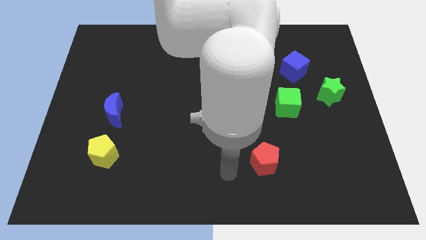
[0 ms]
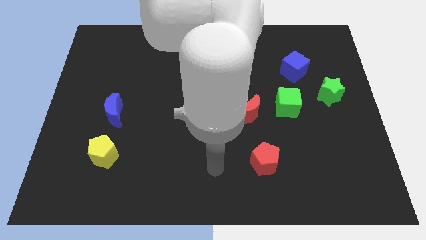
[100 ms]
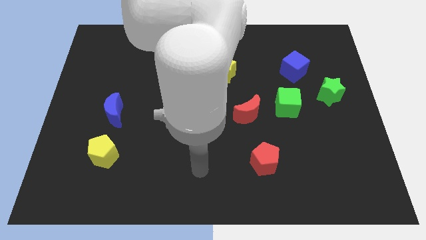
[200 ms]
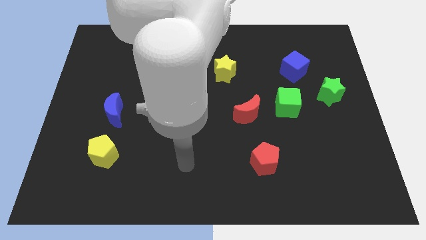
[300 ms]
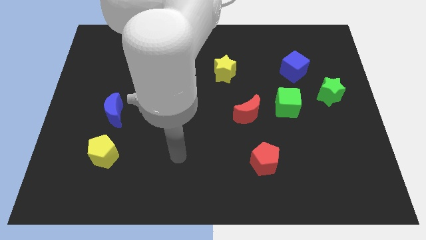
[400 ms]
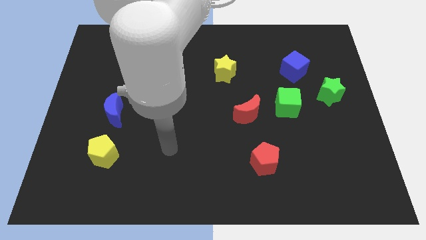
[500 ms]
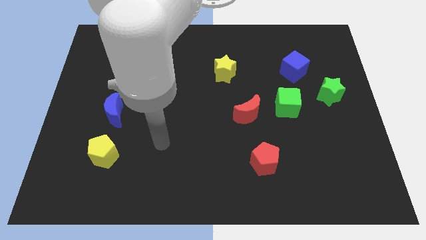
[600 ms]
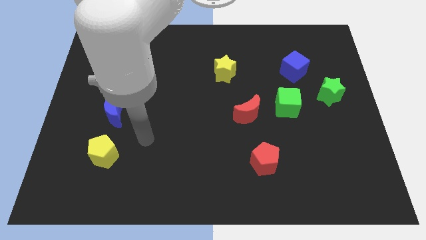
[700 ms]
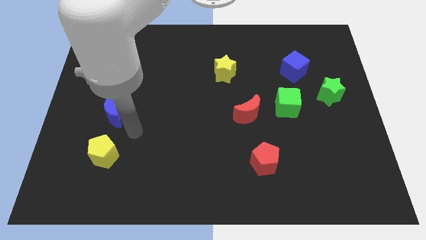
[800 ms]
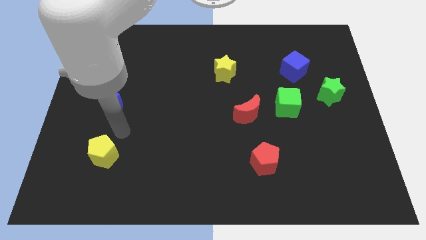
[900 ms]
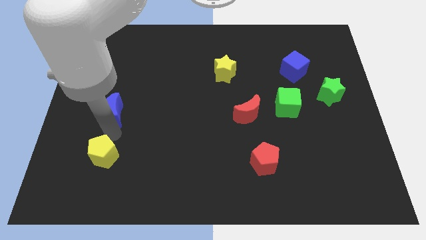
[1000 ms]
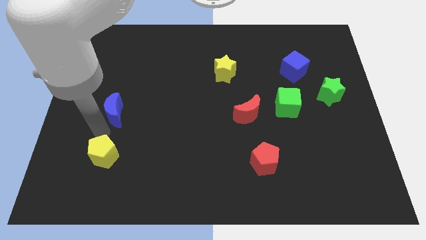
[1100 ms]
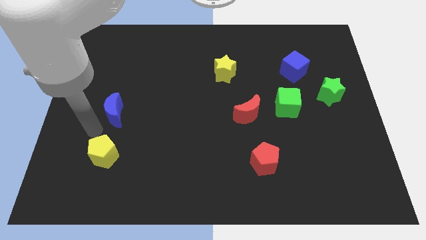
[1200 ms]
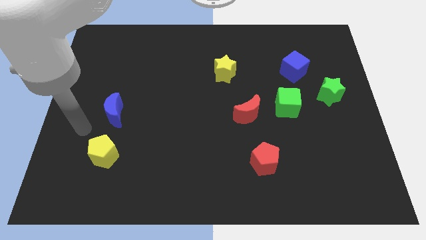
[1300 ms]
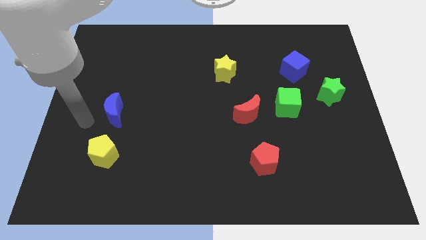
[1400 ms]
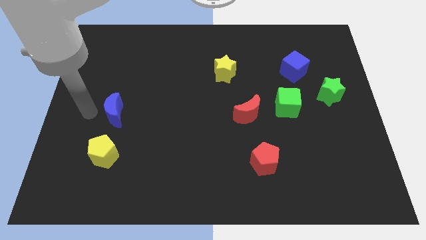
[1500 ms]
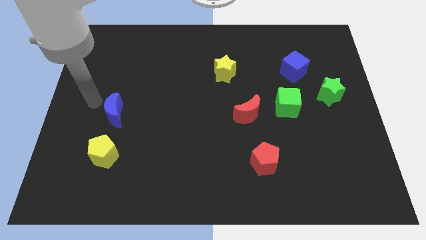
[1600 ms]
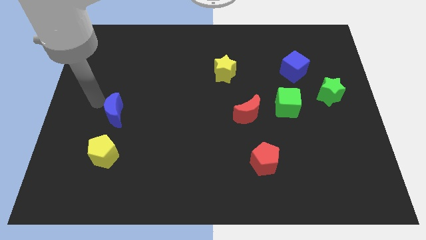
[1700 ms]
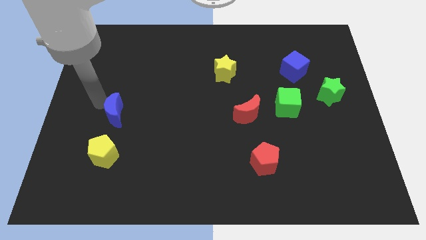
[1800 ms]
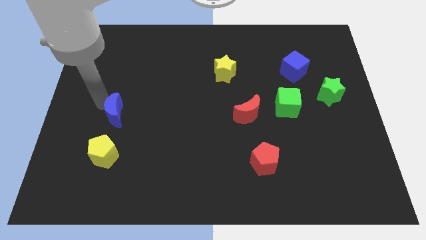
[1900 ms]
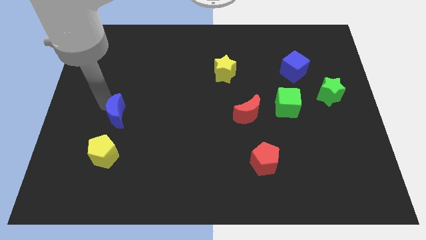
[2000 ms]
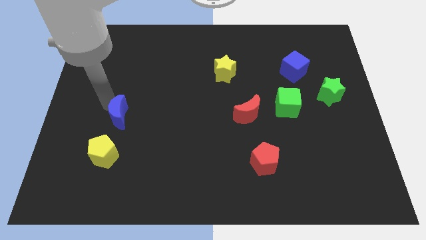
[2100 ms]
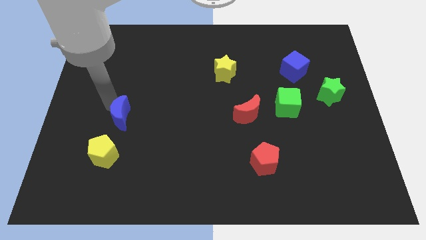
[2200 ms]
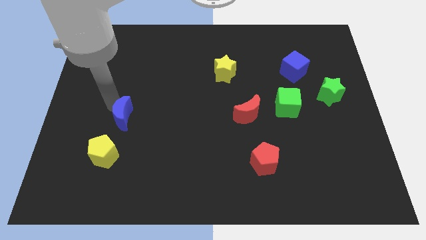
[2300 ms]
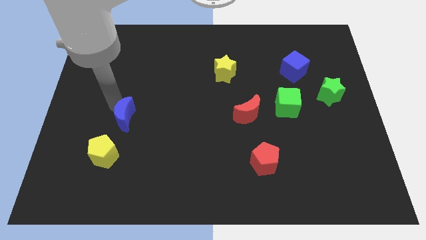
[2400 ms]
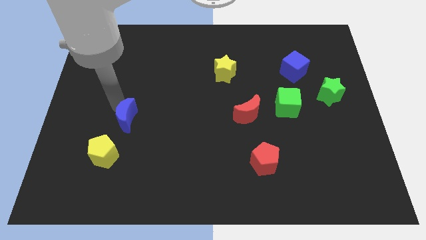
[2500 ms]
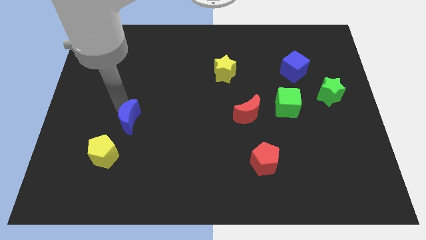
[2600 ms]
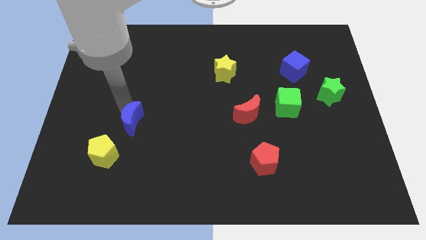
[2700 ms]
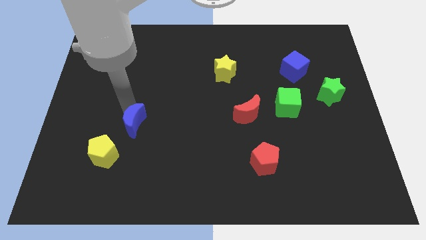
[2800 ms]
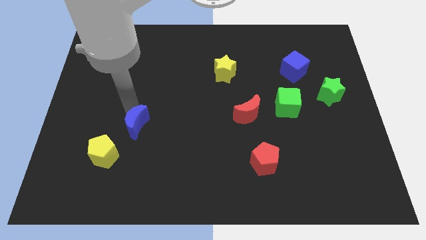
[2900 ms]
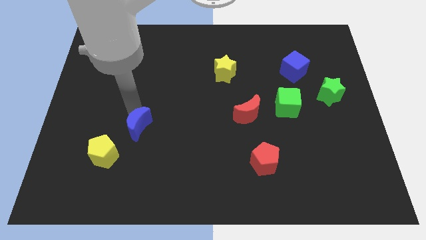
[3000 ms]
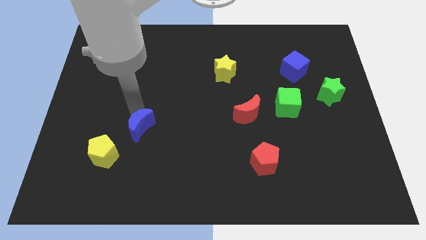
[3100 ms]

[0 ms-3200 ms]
slide the blue moon somewhat downwards and to the right

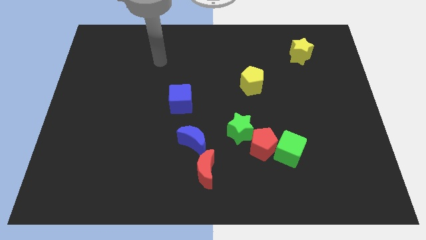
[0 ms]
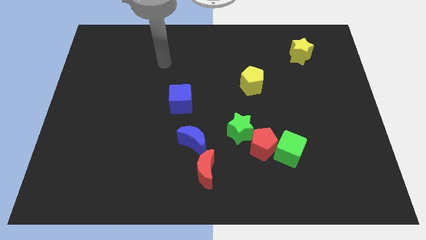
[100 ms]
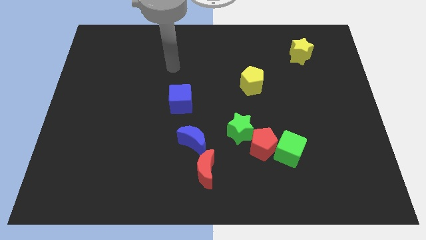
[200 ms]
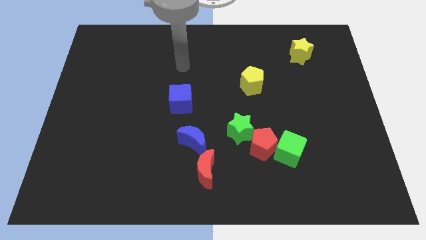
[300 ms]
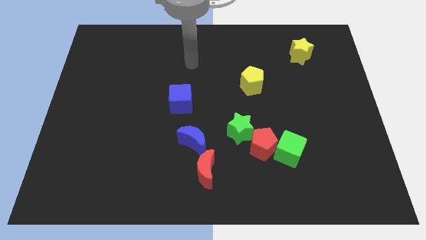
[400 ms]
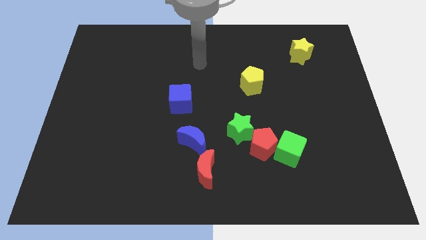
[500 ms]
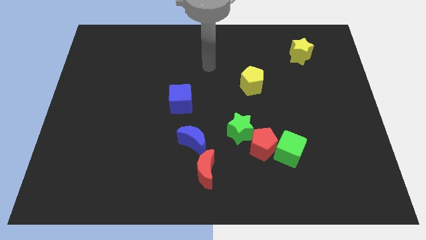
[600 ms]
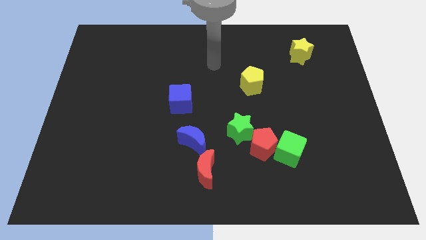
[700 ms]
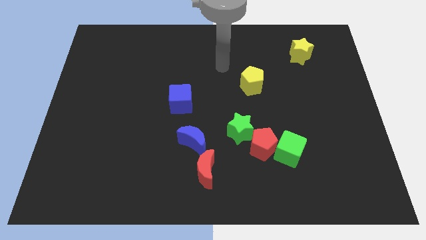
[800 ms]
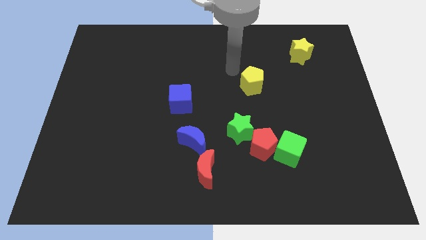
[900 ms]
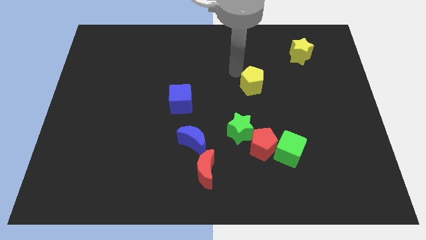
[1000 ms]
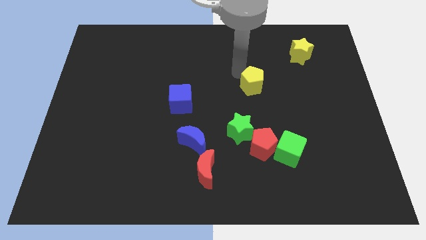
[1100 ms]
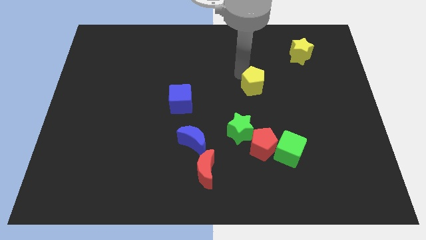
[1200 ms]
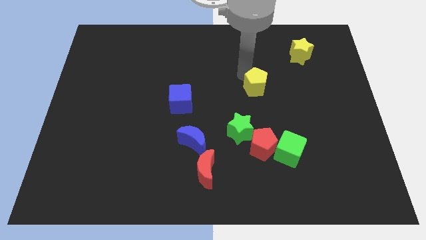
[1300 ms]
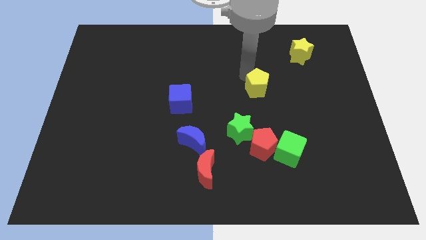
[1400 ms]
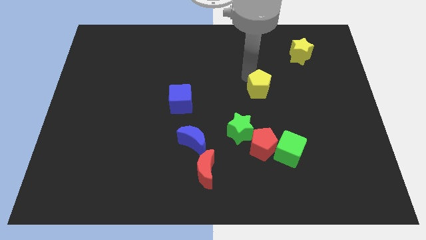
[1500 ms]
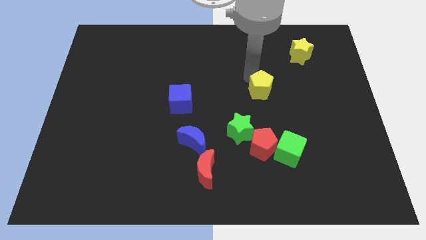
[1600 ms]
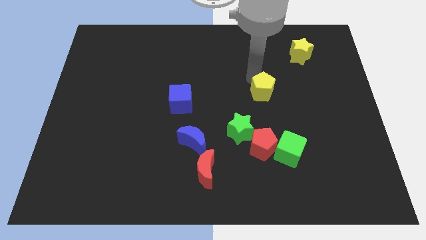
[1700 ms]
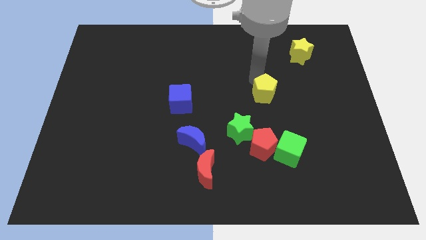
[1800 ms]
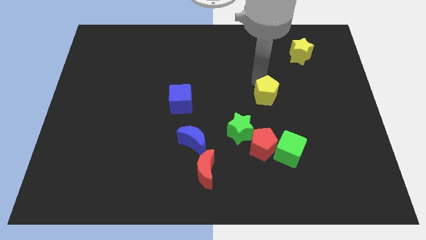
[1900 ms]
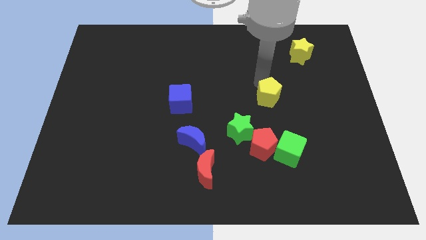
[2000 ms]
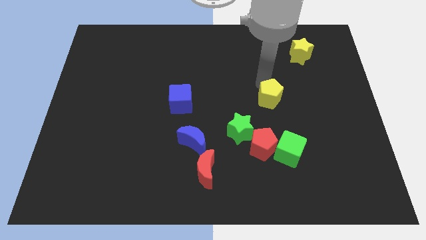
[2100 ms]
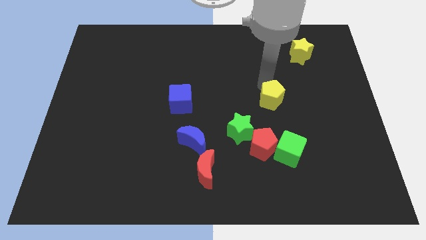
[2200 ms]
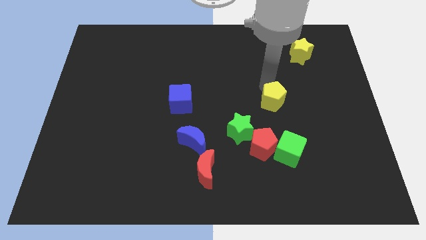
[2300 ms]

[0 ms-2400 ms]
slide the yellow pentagon slightly down and right diagonally

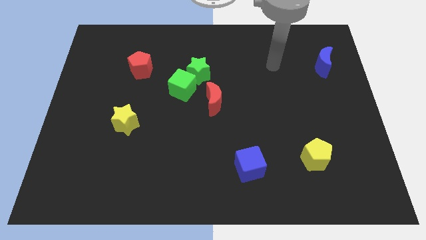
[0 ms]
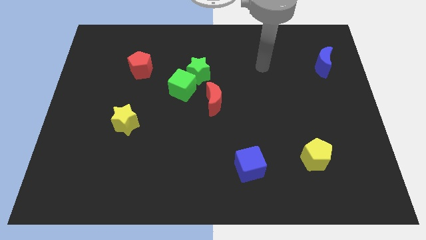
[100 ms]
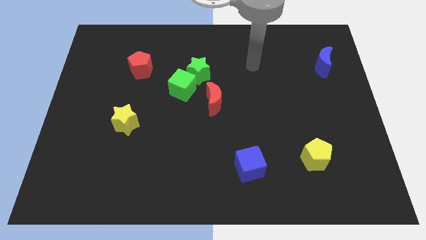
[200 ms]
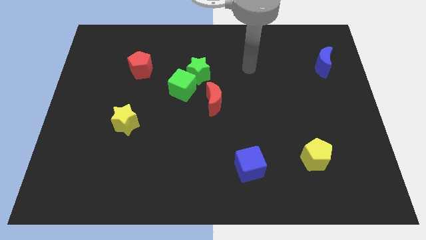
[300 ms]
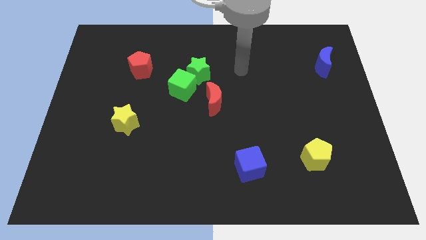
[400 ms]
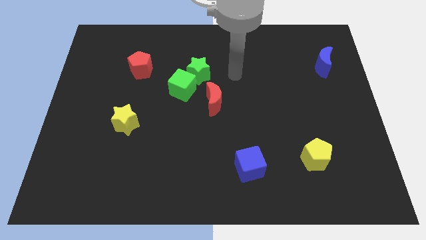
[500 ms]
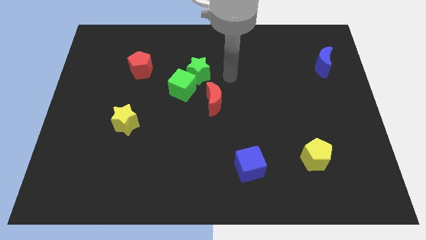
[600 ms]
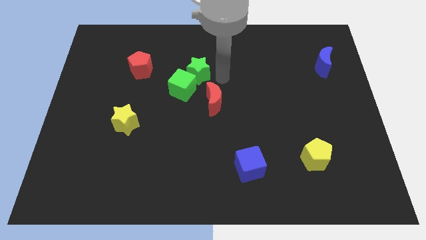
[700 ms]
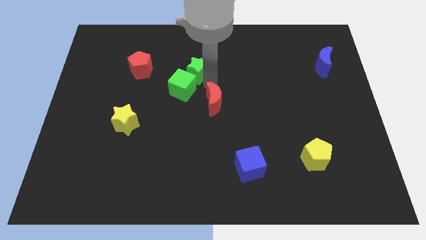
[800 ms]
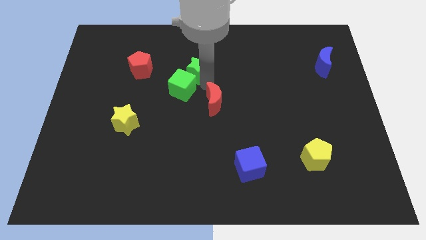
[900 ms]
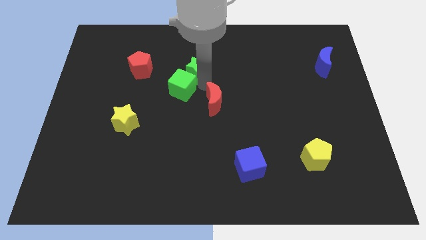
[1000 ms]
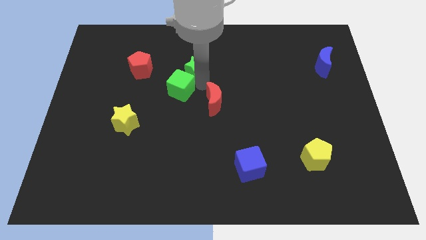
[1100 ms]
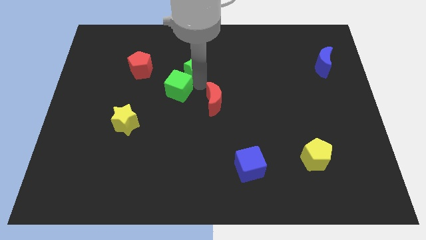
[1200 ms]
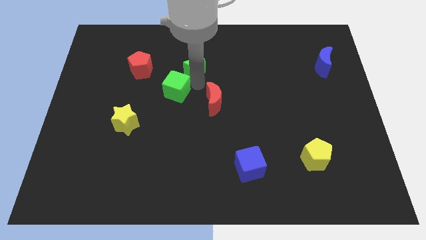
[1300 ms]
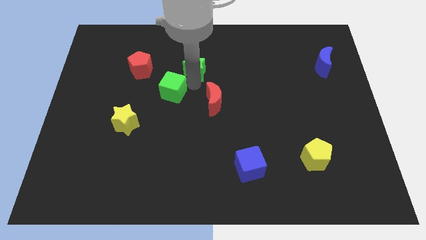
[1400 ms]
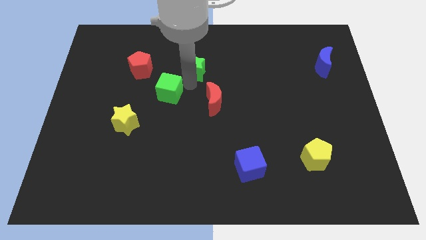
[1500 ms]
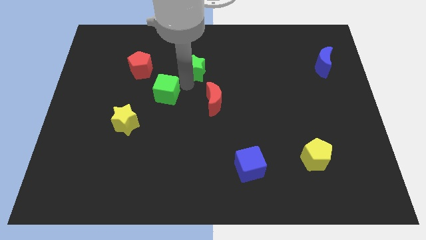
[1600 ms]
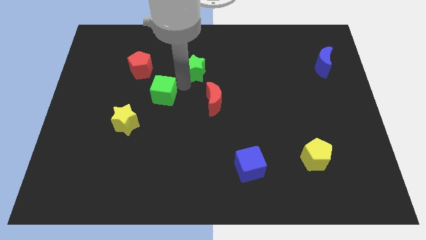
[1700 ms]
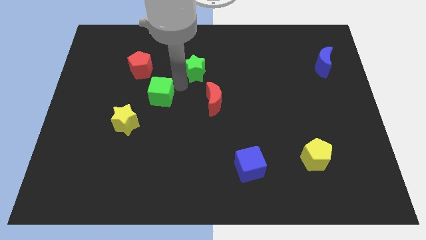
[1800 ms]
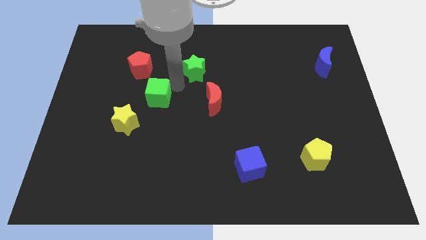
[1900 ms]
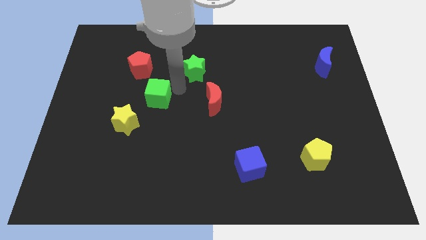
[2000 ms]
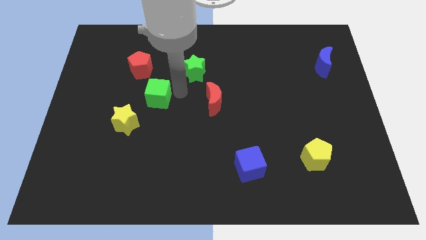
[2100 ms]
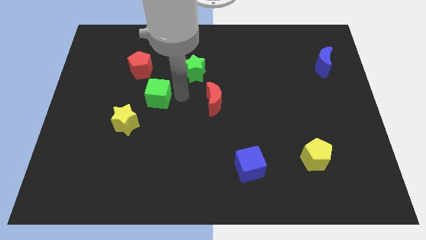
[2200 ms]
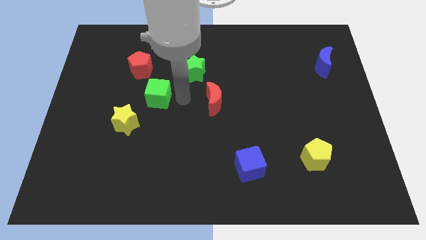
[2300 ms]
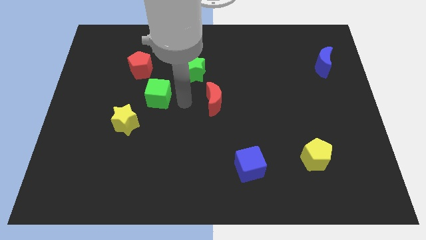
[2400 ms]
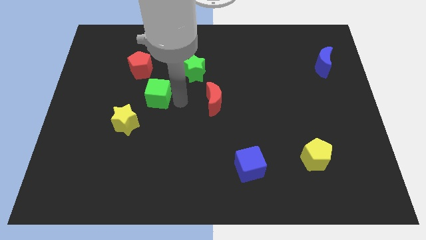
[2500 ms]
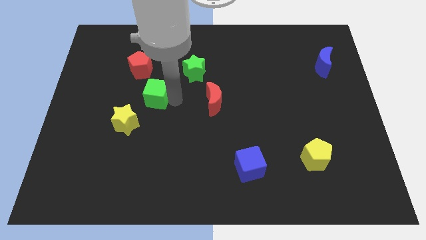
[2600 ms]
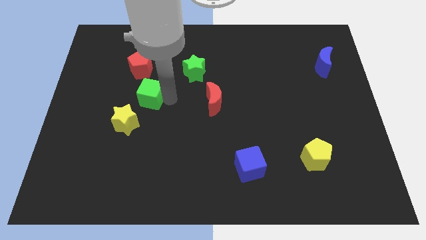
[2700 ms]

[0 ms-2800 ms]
slide the green cube to the left slightly
